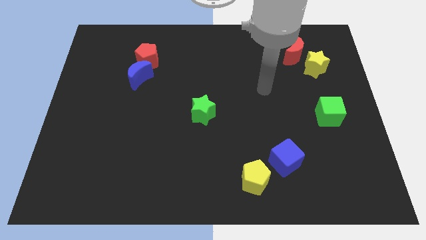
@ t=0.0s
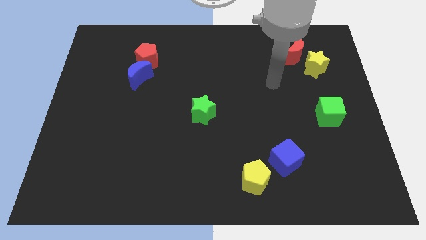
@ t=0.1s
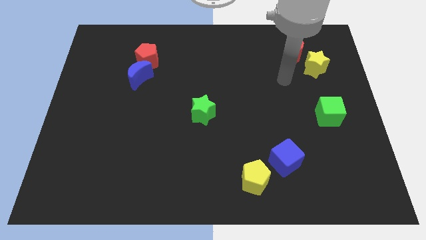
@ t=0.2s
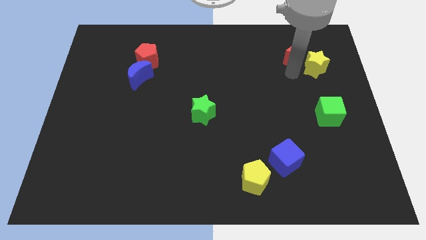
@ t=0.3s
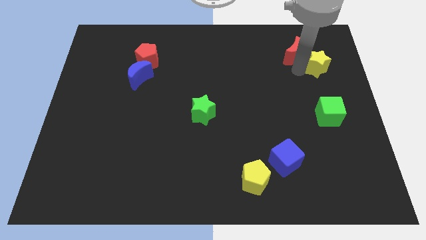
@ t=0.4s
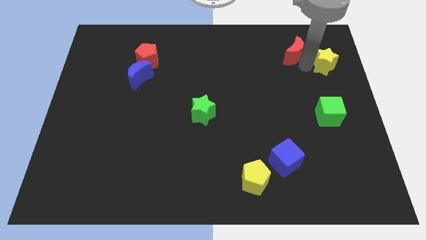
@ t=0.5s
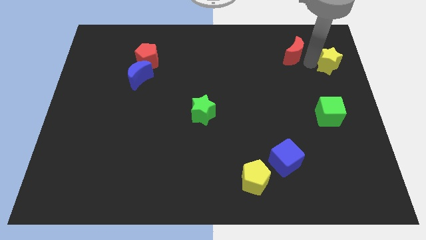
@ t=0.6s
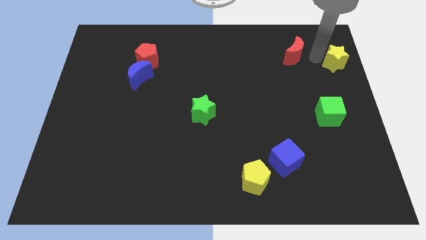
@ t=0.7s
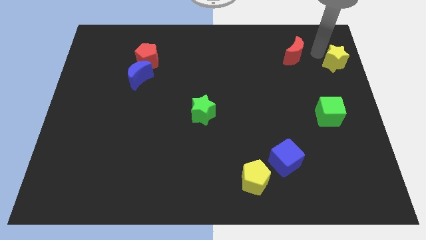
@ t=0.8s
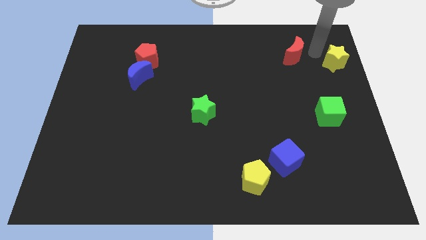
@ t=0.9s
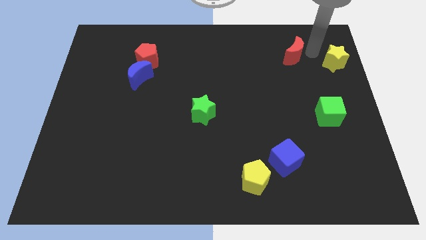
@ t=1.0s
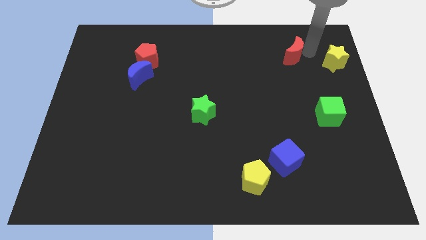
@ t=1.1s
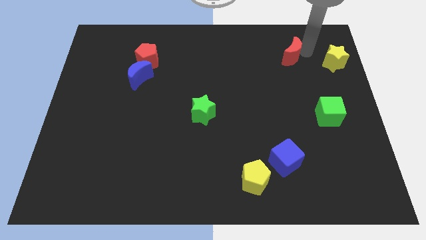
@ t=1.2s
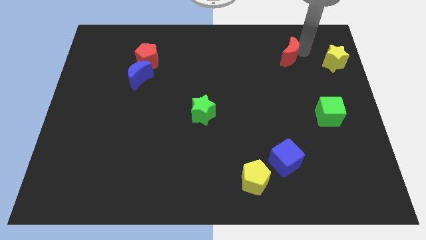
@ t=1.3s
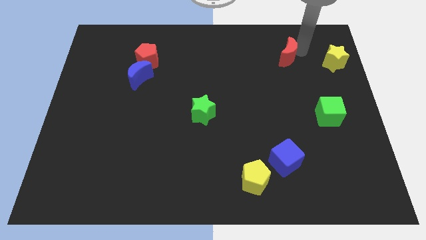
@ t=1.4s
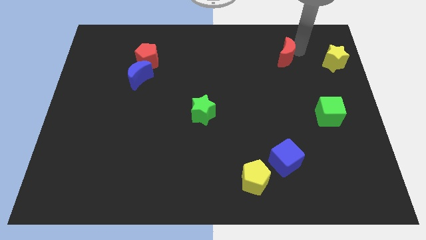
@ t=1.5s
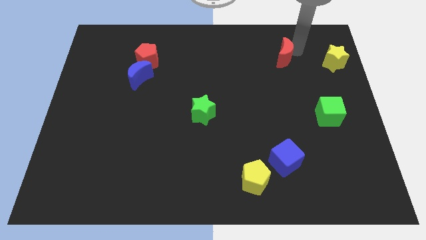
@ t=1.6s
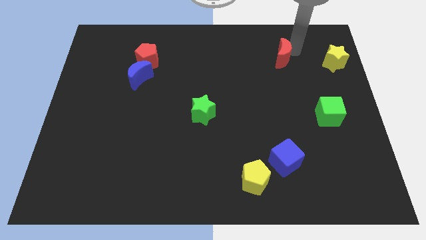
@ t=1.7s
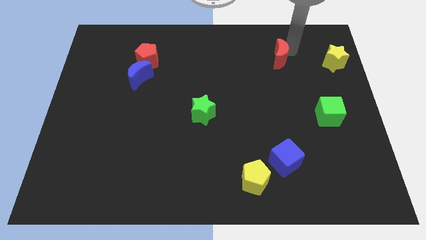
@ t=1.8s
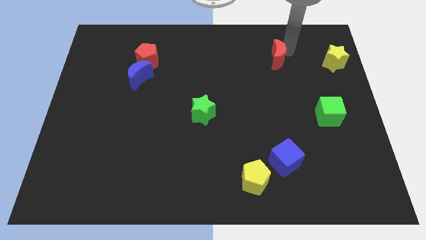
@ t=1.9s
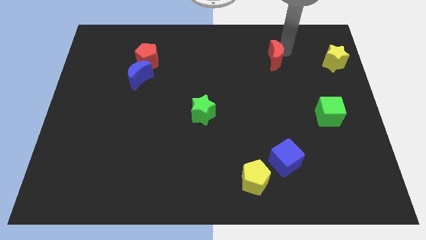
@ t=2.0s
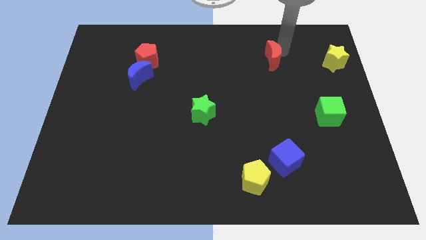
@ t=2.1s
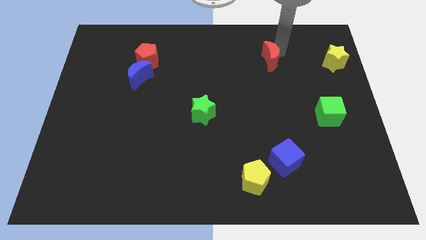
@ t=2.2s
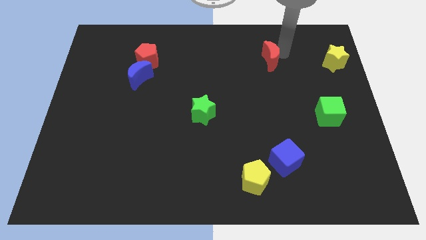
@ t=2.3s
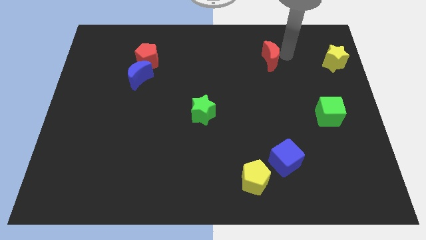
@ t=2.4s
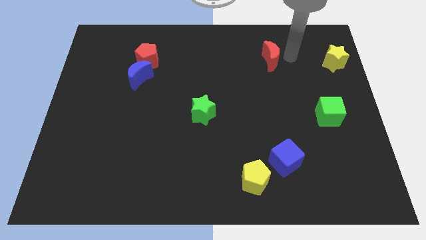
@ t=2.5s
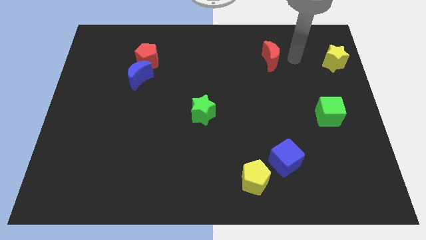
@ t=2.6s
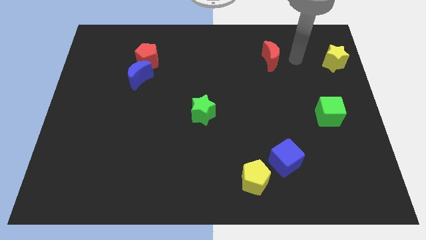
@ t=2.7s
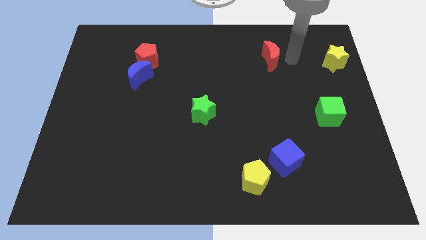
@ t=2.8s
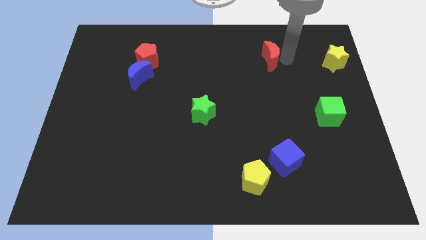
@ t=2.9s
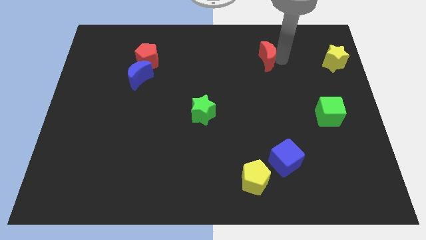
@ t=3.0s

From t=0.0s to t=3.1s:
push the red moon a little bit left

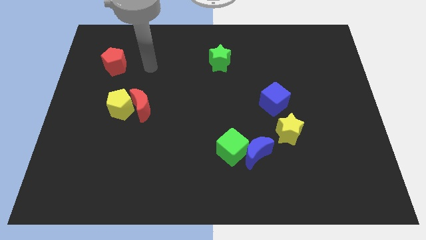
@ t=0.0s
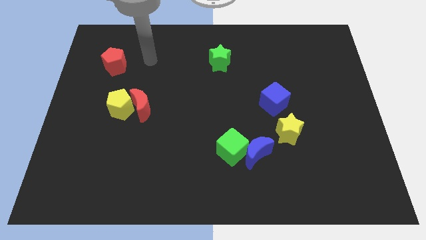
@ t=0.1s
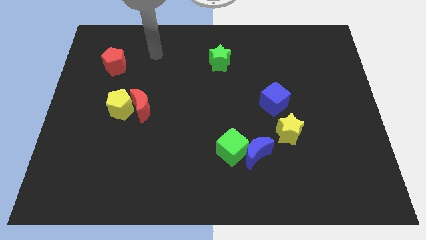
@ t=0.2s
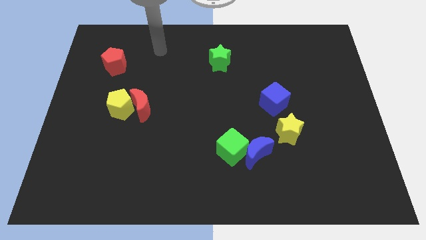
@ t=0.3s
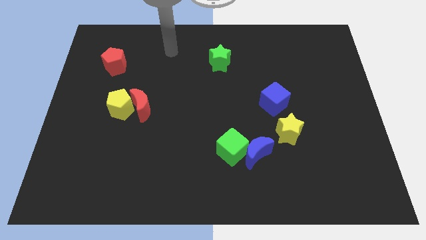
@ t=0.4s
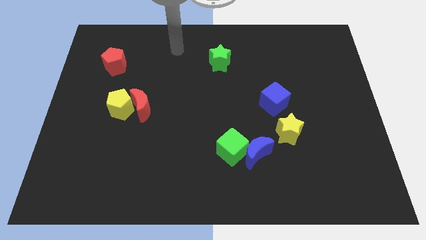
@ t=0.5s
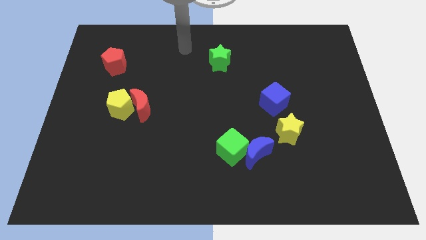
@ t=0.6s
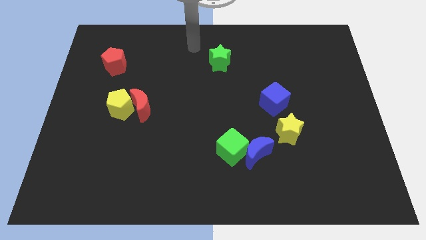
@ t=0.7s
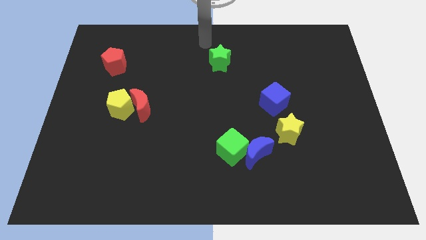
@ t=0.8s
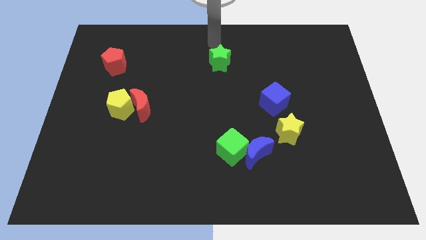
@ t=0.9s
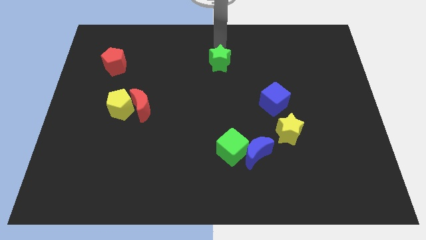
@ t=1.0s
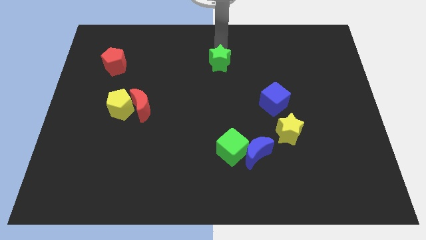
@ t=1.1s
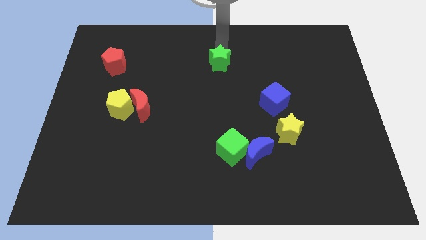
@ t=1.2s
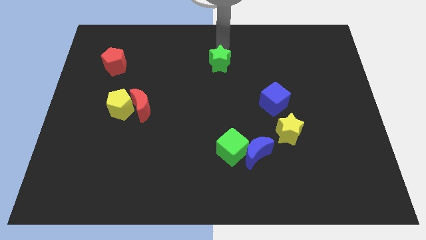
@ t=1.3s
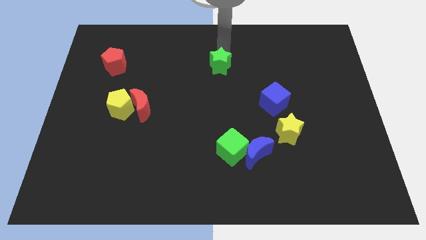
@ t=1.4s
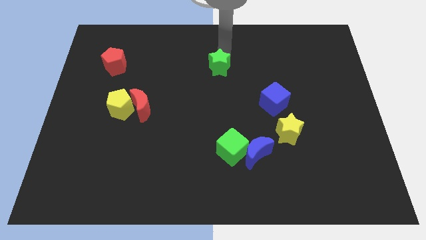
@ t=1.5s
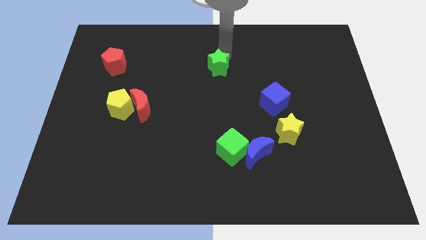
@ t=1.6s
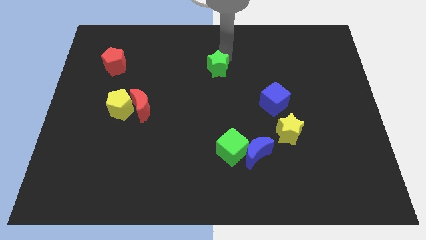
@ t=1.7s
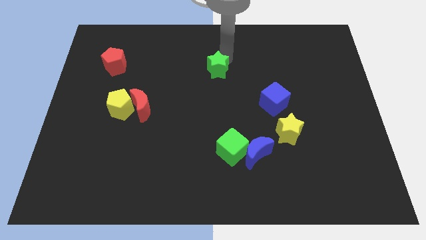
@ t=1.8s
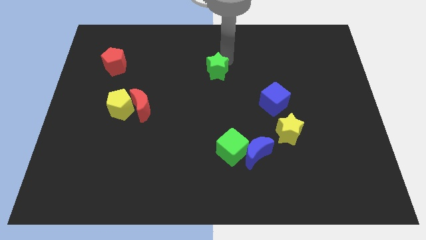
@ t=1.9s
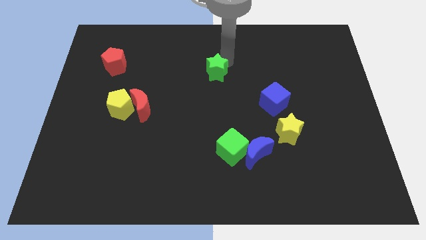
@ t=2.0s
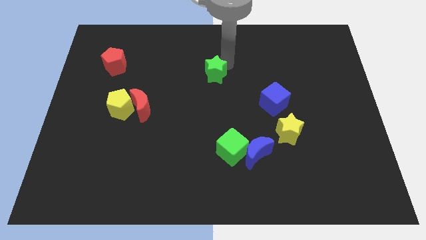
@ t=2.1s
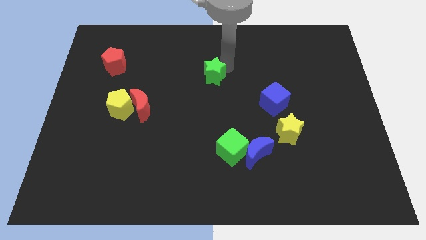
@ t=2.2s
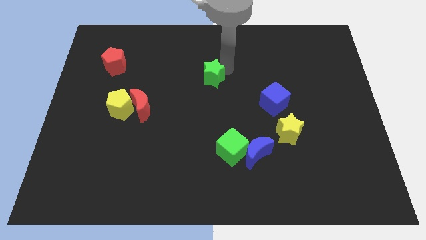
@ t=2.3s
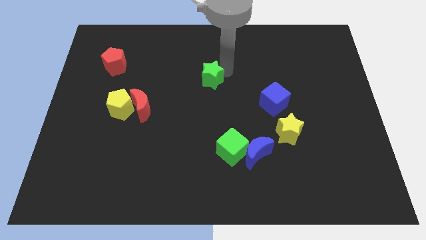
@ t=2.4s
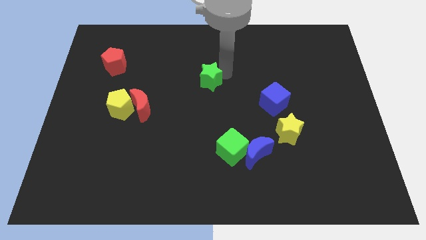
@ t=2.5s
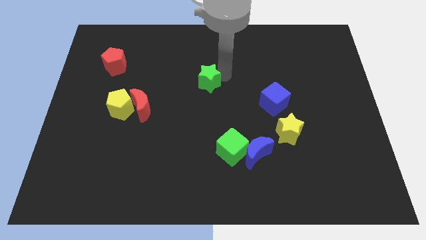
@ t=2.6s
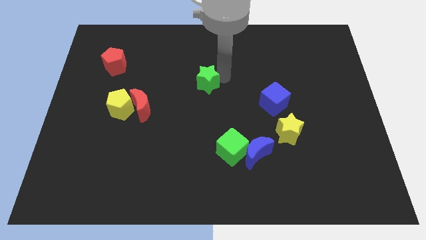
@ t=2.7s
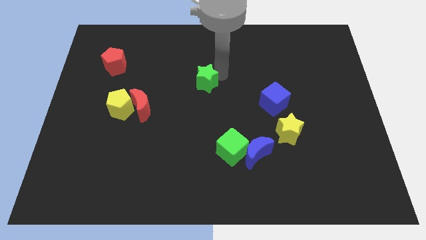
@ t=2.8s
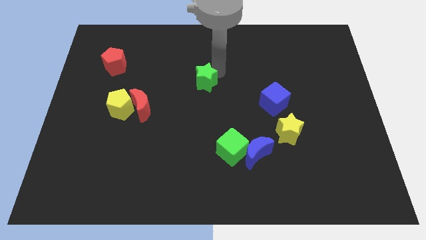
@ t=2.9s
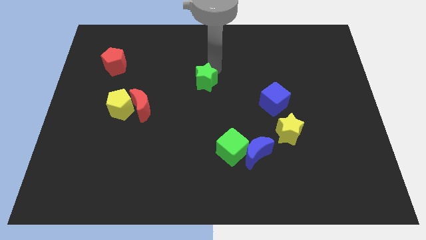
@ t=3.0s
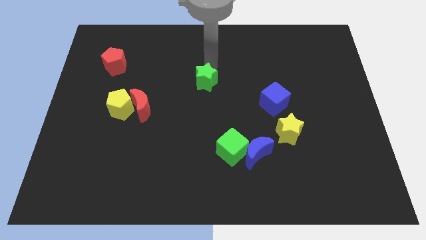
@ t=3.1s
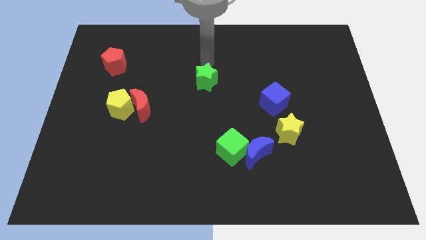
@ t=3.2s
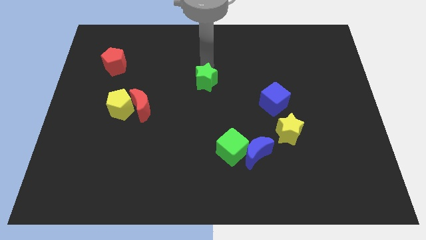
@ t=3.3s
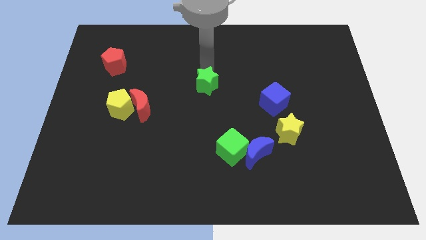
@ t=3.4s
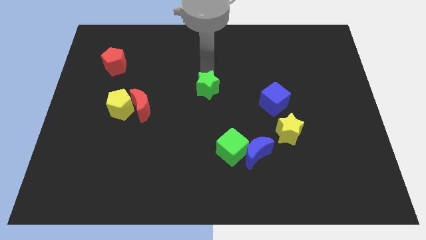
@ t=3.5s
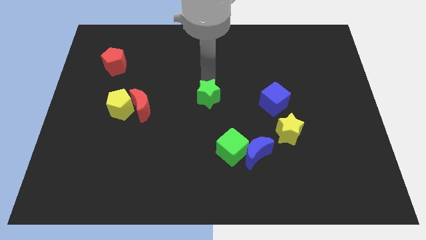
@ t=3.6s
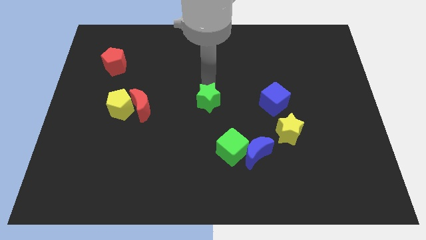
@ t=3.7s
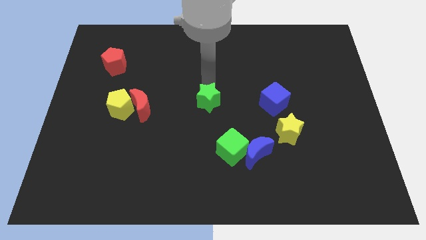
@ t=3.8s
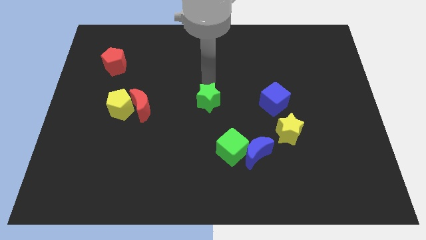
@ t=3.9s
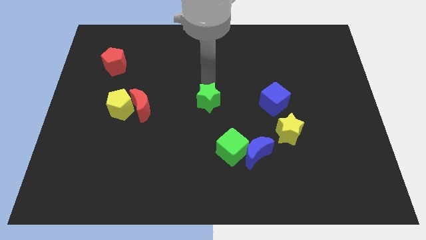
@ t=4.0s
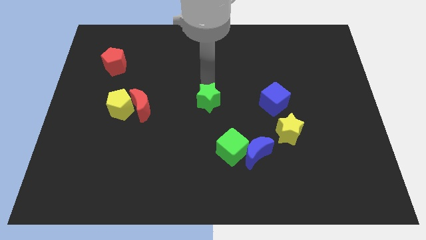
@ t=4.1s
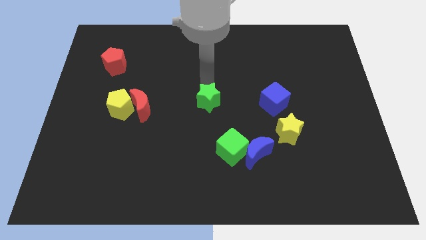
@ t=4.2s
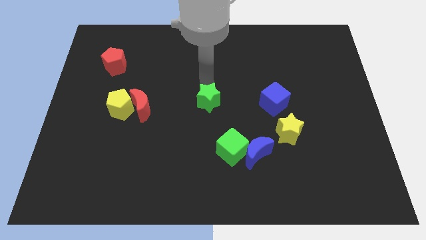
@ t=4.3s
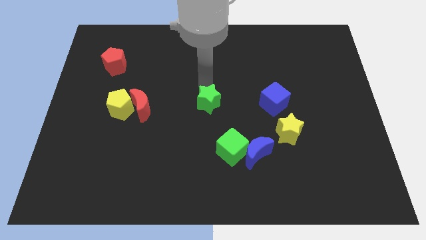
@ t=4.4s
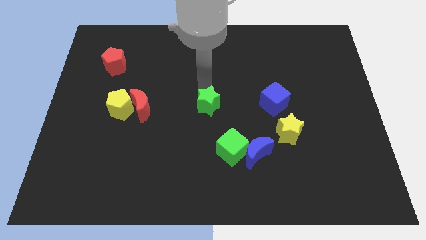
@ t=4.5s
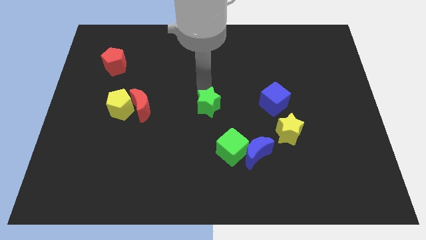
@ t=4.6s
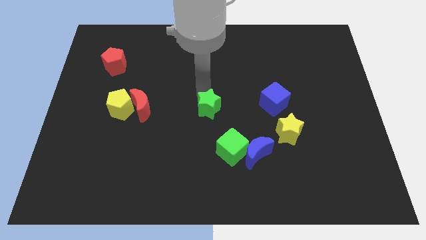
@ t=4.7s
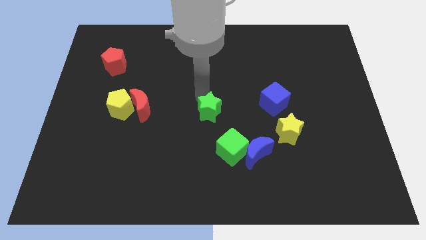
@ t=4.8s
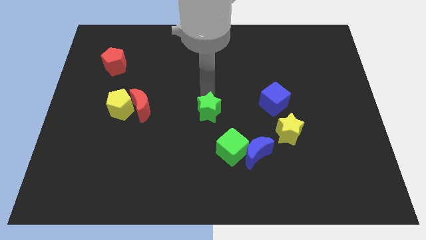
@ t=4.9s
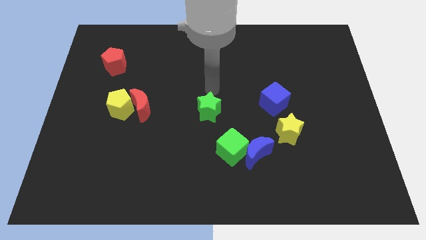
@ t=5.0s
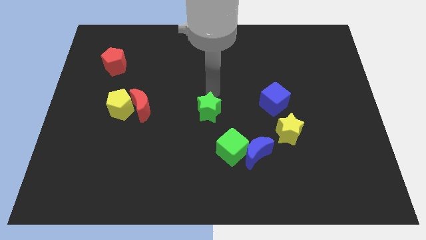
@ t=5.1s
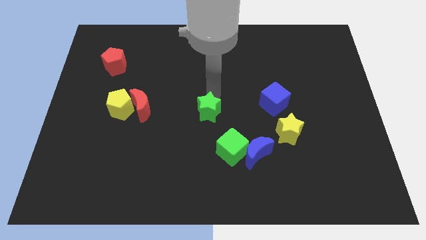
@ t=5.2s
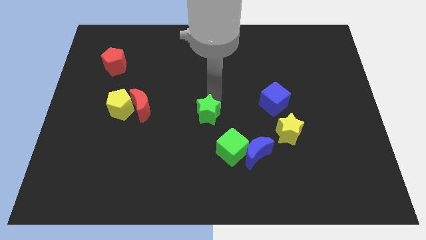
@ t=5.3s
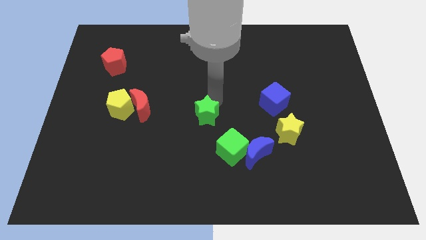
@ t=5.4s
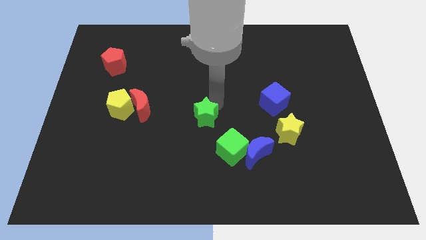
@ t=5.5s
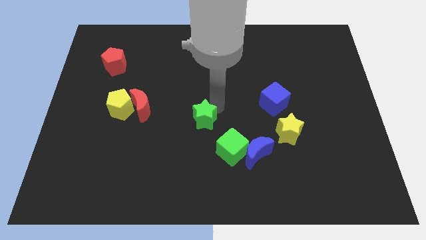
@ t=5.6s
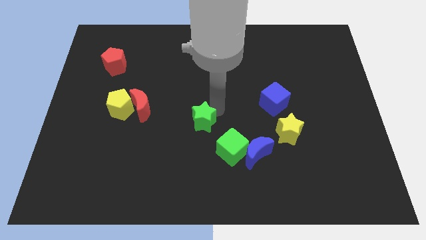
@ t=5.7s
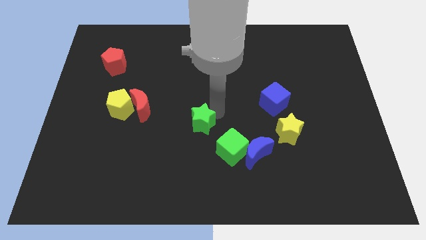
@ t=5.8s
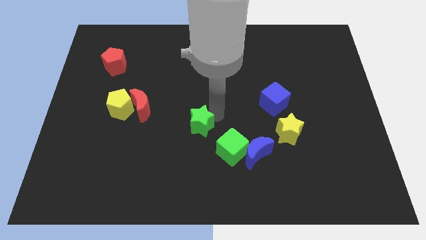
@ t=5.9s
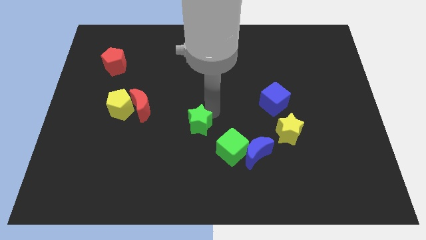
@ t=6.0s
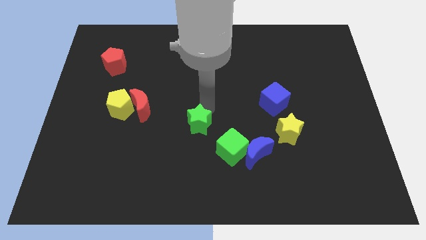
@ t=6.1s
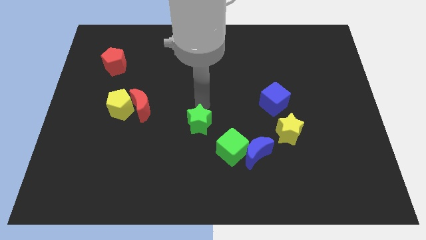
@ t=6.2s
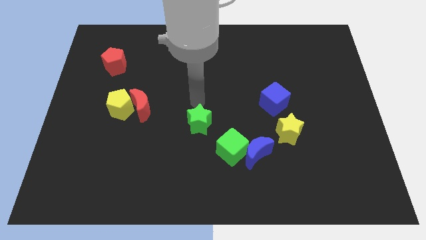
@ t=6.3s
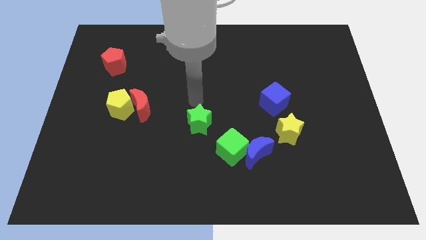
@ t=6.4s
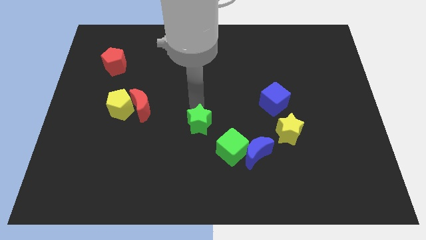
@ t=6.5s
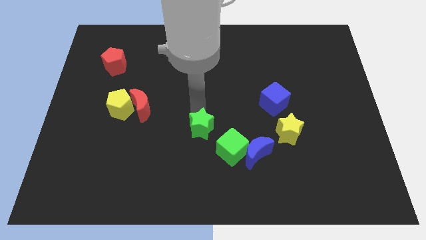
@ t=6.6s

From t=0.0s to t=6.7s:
push the green star down
